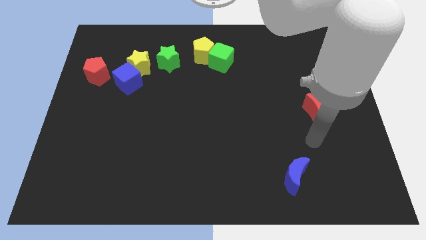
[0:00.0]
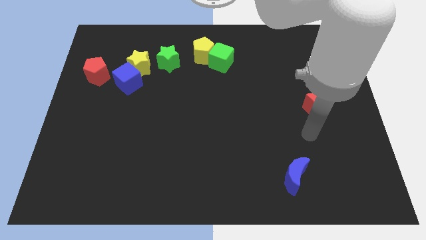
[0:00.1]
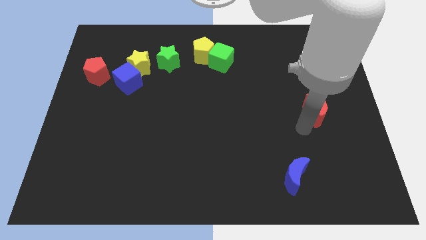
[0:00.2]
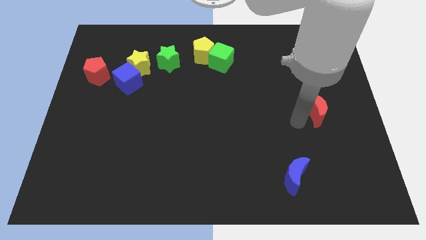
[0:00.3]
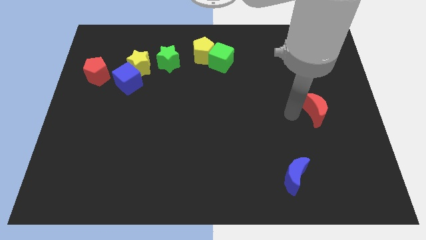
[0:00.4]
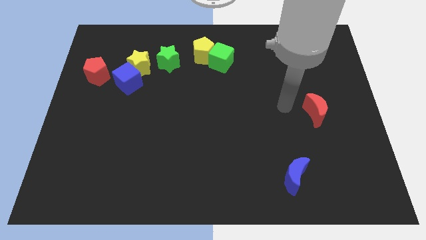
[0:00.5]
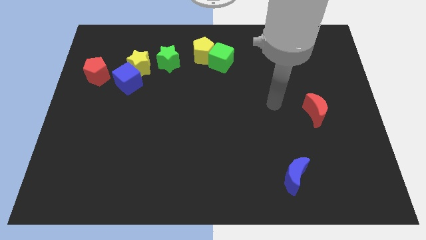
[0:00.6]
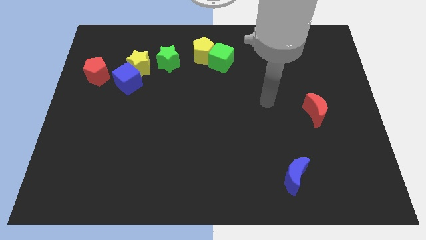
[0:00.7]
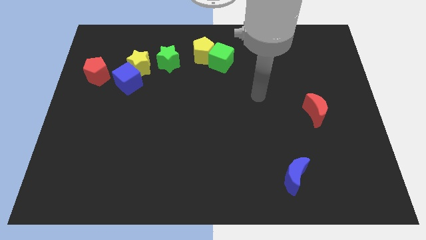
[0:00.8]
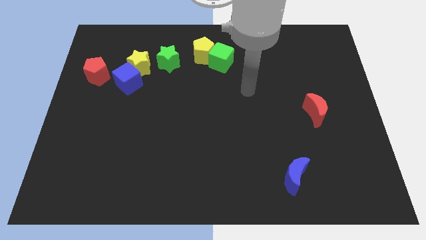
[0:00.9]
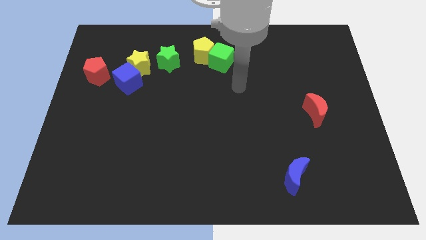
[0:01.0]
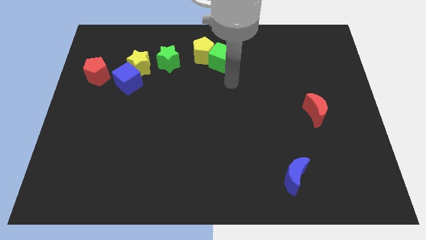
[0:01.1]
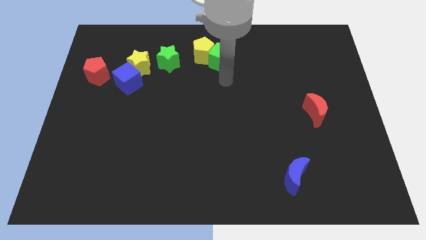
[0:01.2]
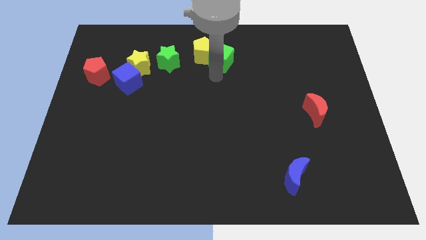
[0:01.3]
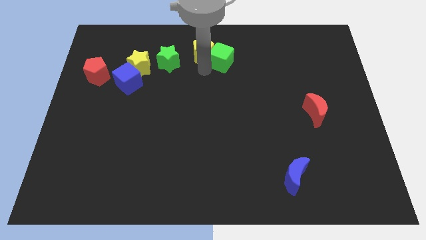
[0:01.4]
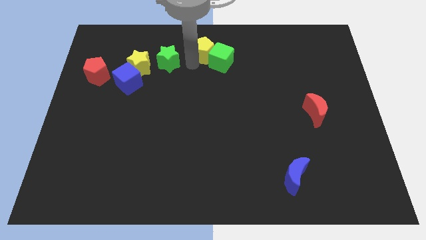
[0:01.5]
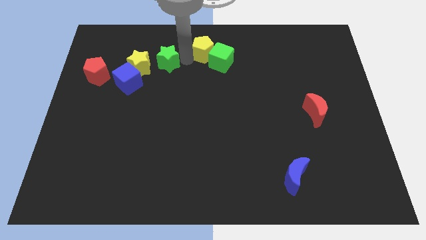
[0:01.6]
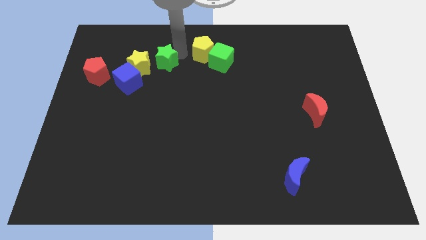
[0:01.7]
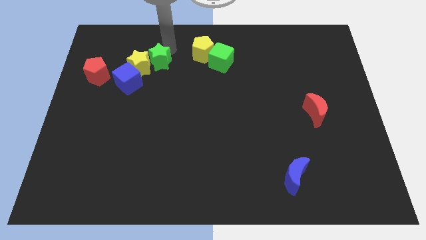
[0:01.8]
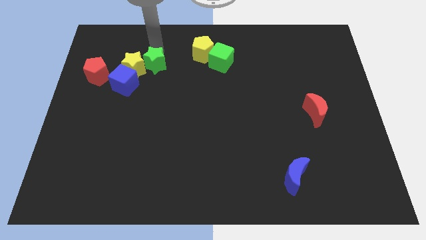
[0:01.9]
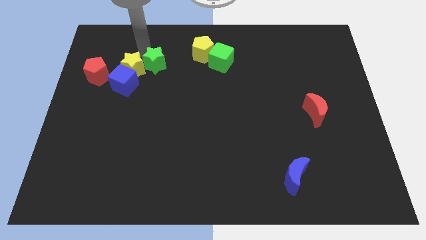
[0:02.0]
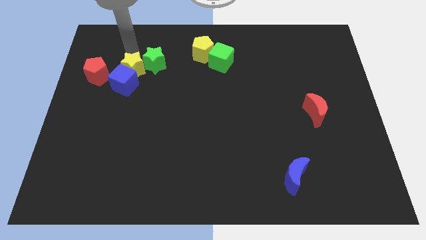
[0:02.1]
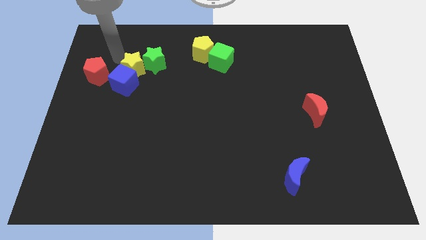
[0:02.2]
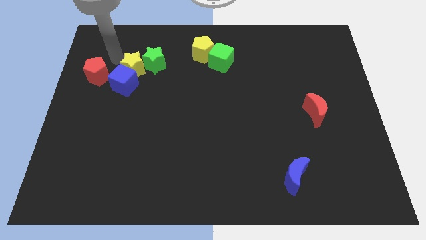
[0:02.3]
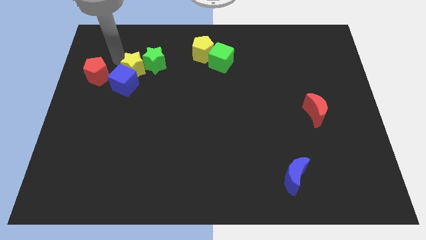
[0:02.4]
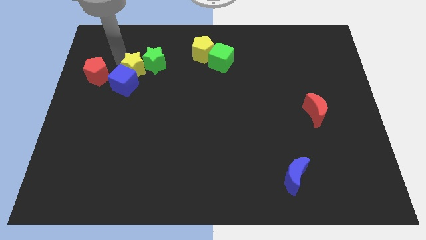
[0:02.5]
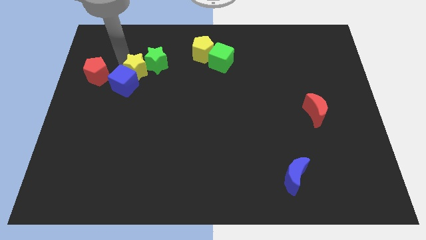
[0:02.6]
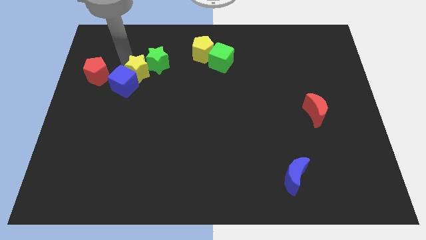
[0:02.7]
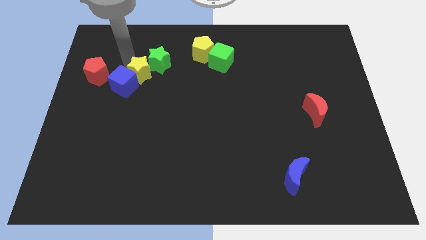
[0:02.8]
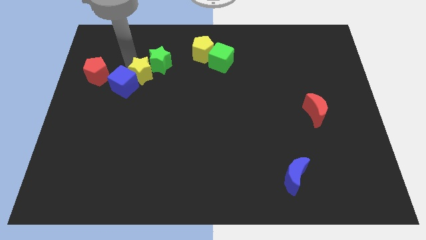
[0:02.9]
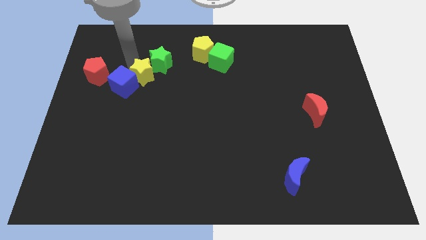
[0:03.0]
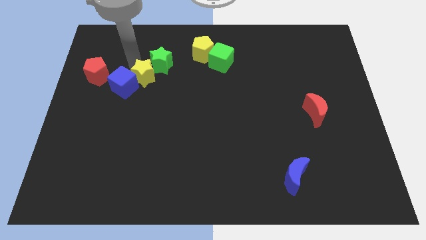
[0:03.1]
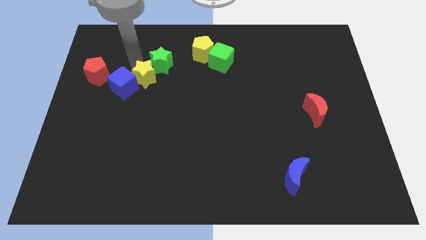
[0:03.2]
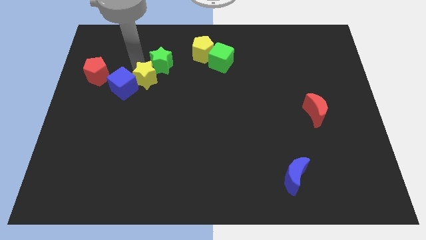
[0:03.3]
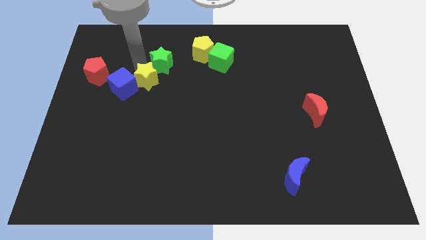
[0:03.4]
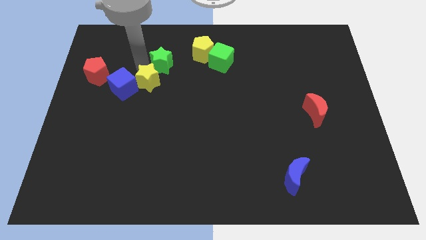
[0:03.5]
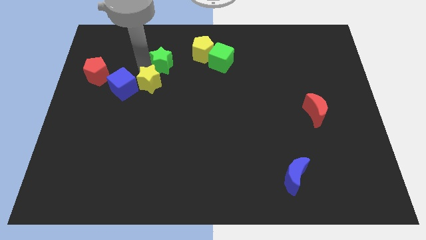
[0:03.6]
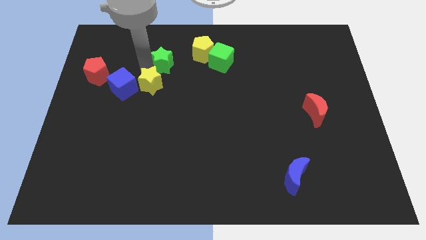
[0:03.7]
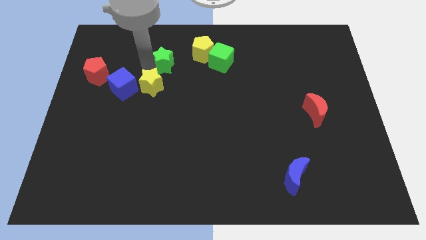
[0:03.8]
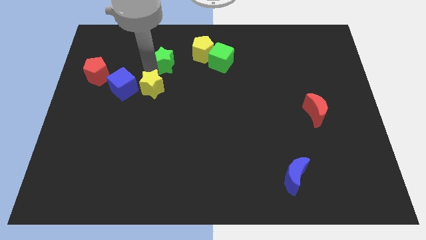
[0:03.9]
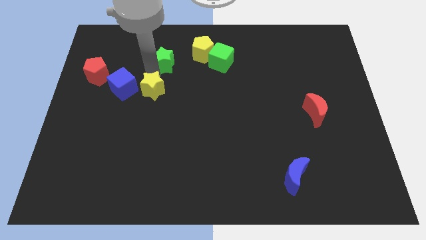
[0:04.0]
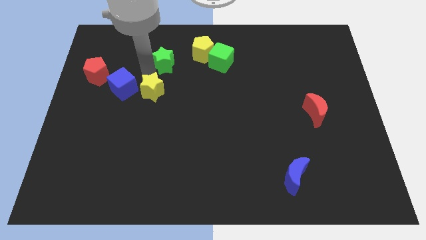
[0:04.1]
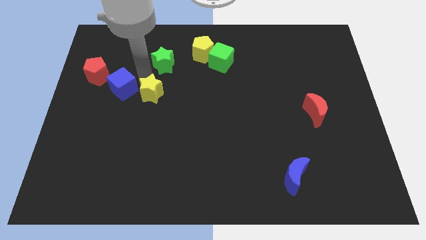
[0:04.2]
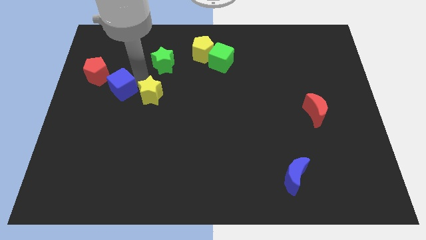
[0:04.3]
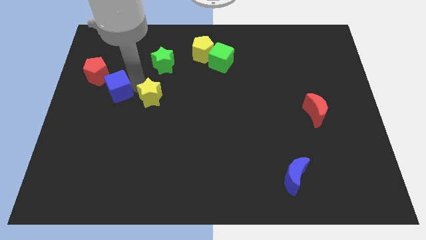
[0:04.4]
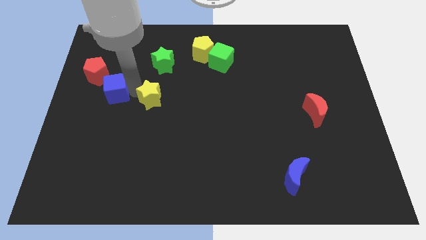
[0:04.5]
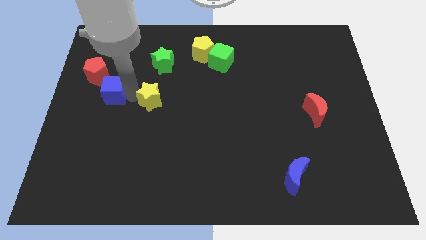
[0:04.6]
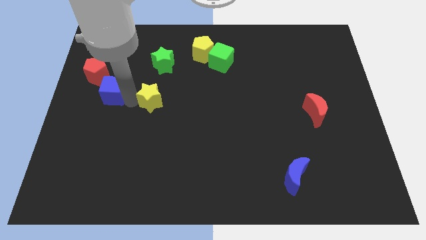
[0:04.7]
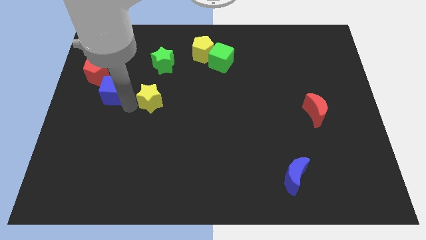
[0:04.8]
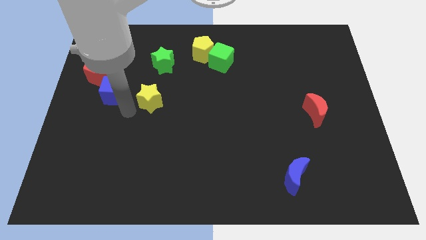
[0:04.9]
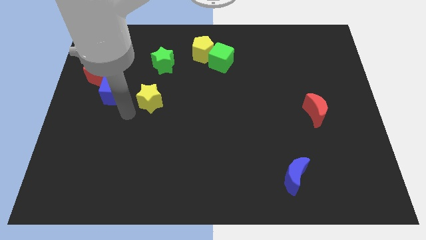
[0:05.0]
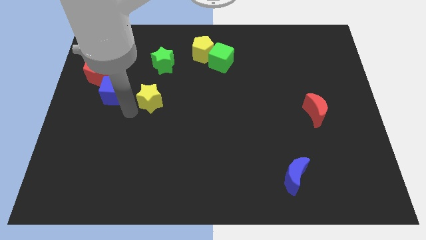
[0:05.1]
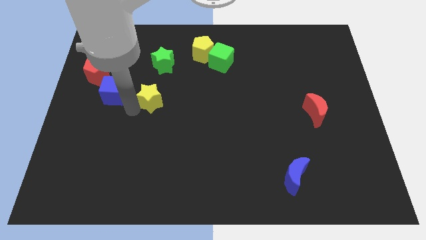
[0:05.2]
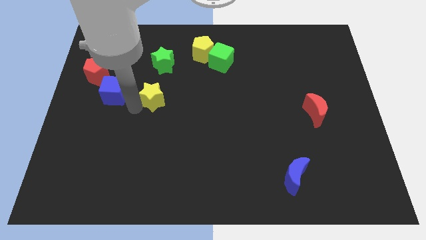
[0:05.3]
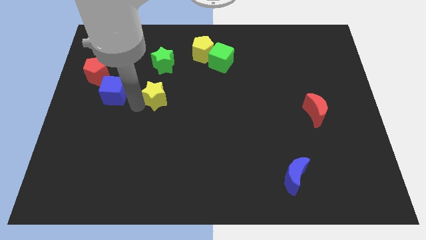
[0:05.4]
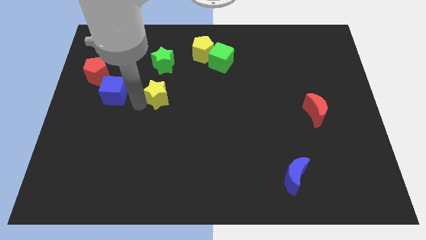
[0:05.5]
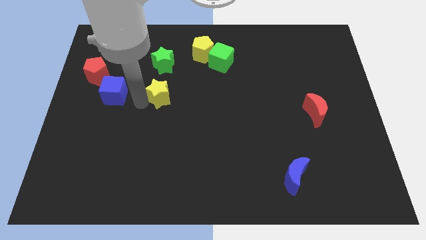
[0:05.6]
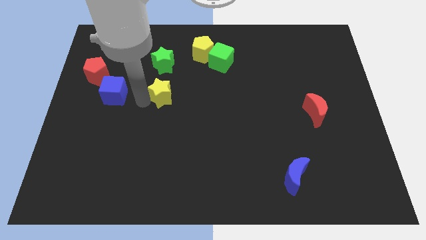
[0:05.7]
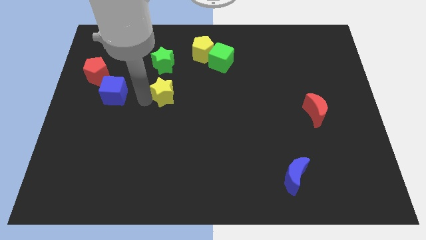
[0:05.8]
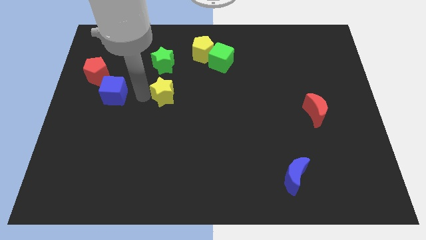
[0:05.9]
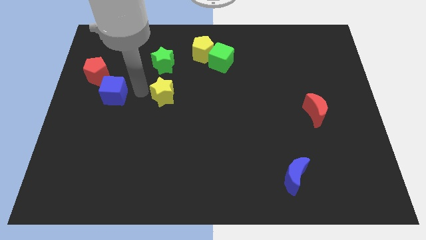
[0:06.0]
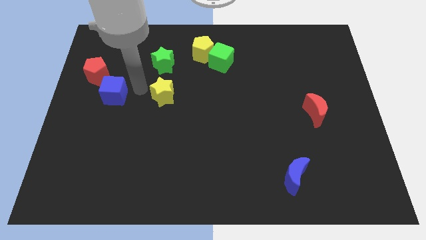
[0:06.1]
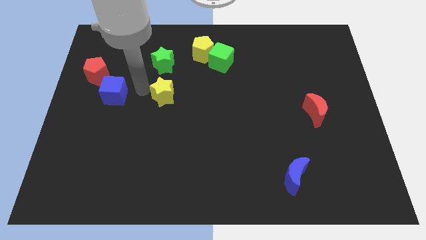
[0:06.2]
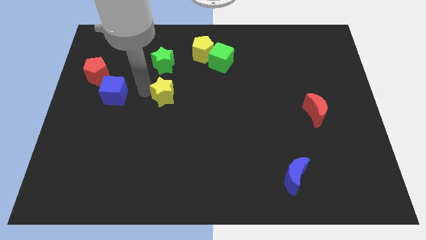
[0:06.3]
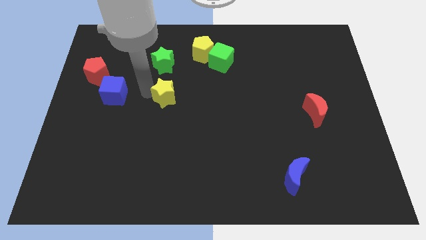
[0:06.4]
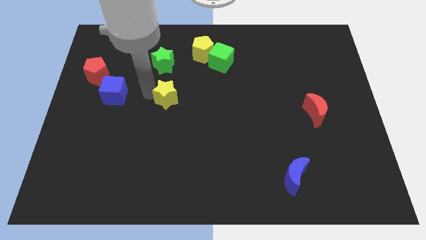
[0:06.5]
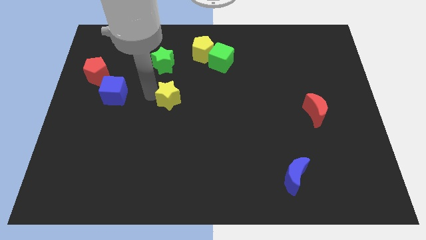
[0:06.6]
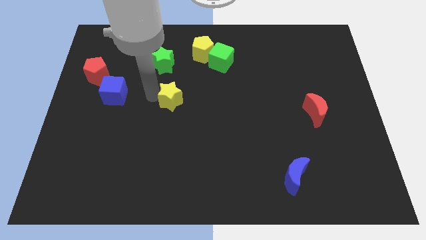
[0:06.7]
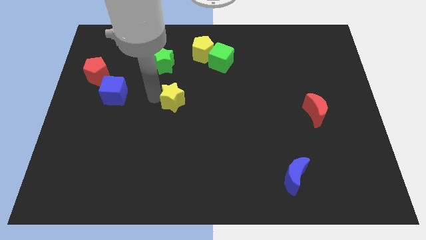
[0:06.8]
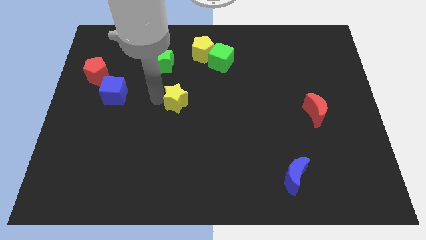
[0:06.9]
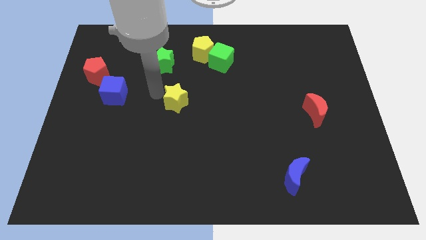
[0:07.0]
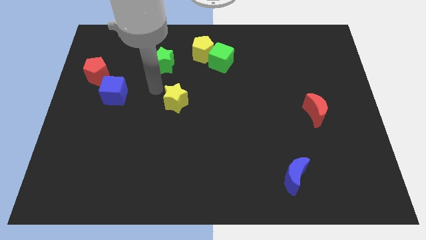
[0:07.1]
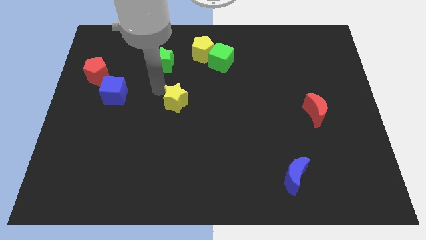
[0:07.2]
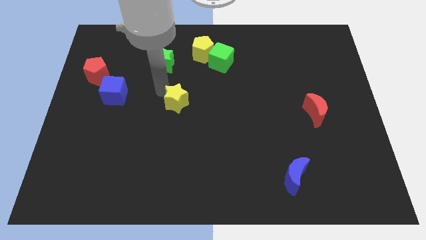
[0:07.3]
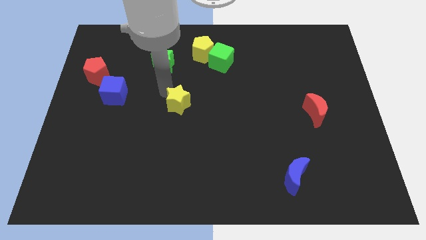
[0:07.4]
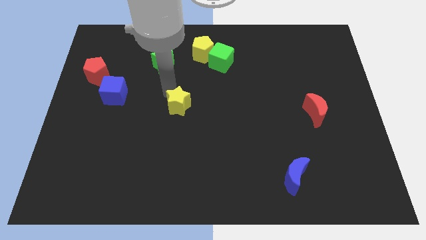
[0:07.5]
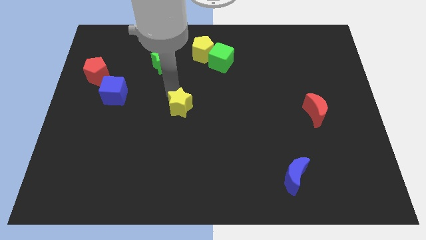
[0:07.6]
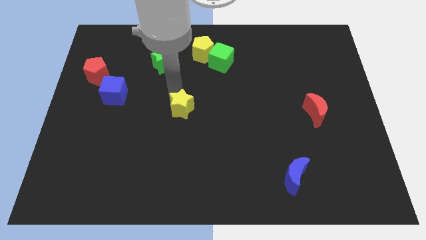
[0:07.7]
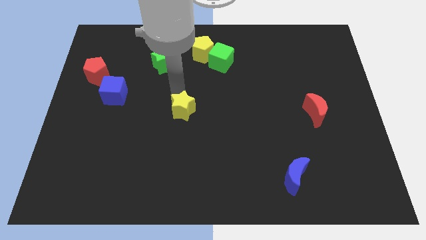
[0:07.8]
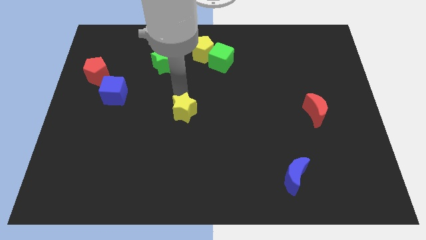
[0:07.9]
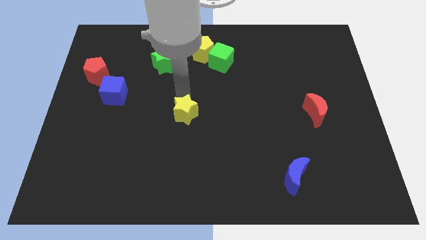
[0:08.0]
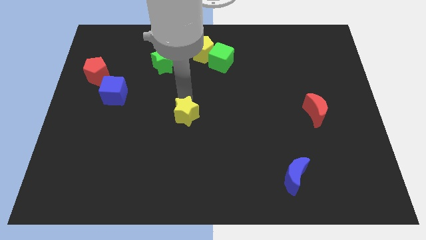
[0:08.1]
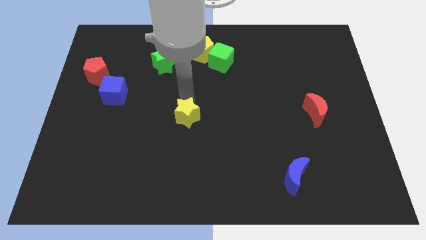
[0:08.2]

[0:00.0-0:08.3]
slide the yellow star down and then right

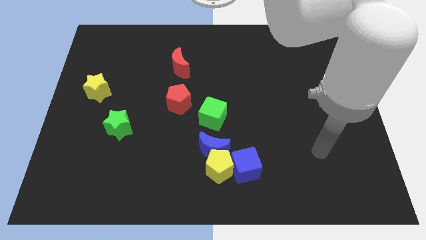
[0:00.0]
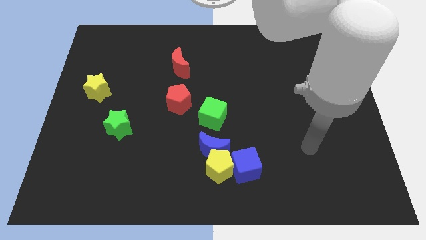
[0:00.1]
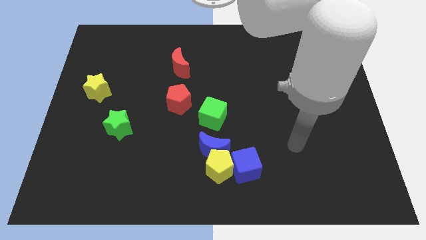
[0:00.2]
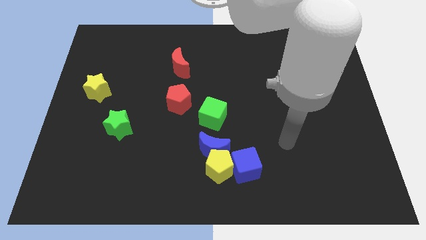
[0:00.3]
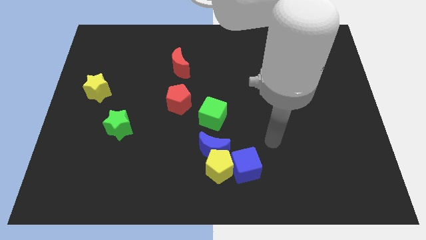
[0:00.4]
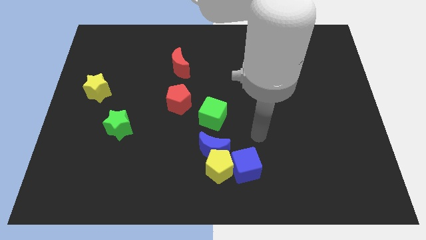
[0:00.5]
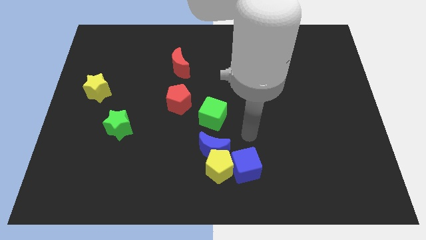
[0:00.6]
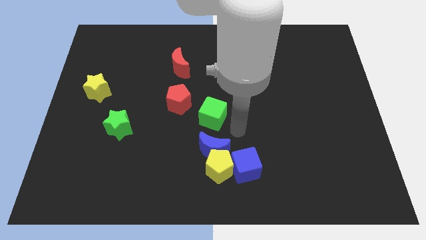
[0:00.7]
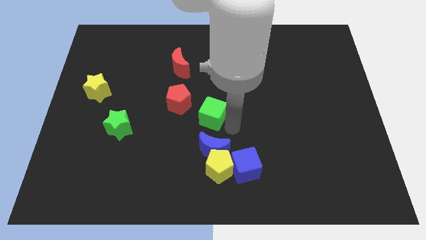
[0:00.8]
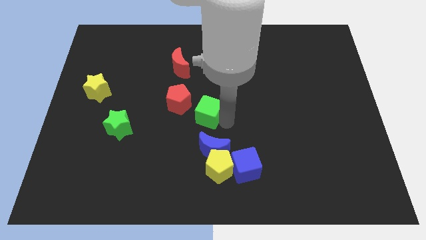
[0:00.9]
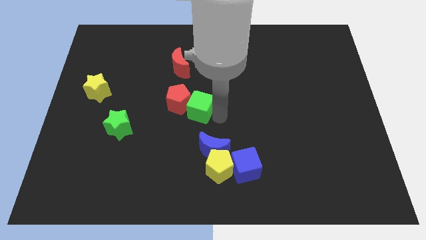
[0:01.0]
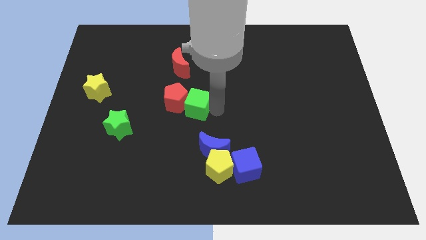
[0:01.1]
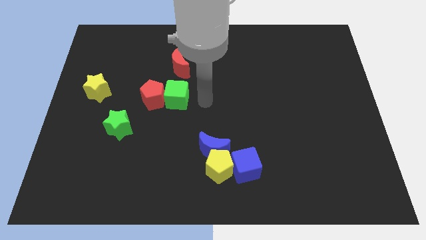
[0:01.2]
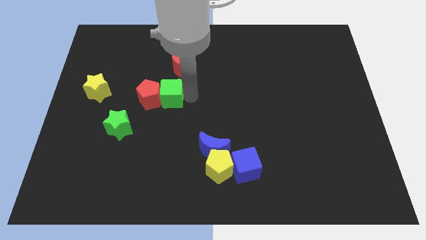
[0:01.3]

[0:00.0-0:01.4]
slightly push the red pentagon to the left
